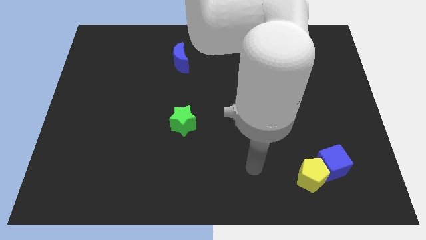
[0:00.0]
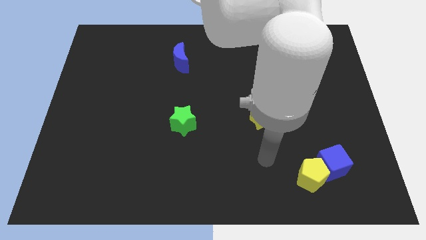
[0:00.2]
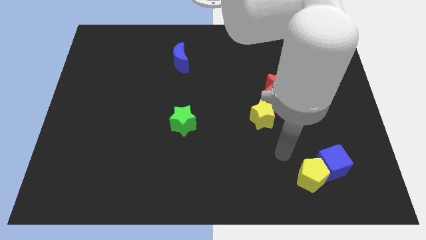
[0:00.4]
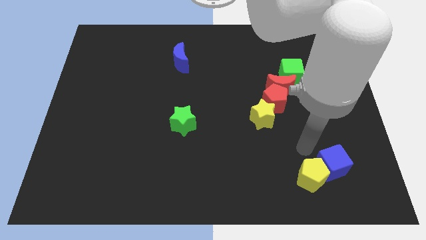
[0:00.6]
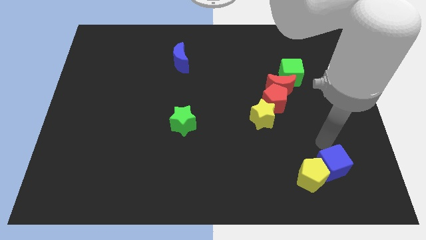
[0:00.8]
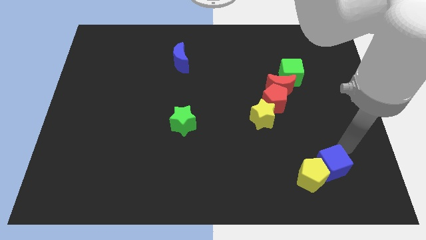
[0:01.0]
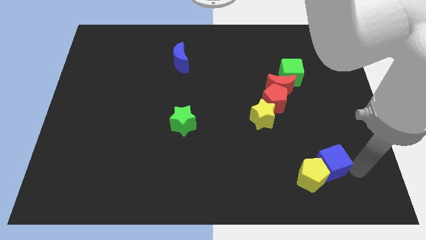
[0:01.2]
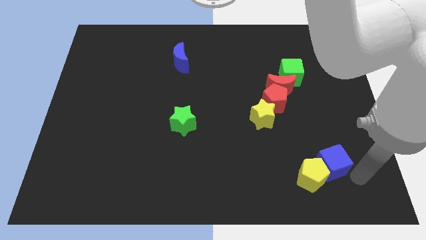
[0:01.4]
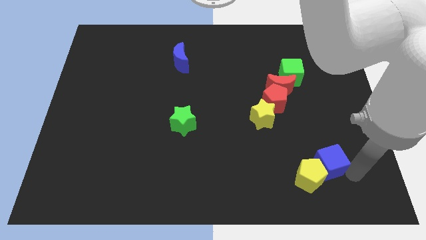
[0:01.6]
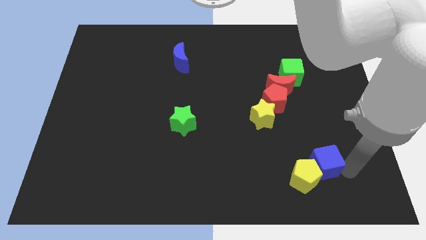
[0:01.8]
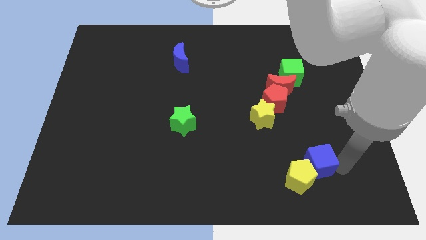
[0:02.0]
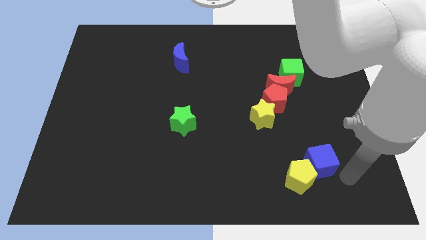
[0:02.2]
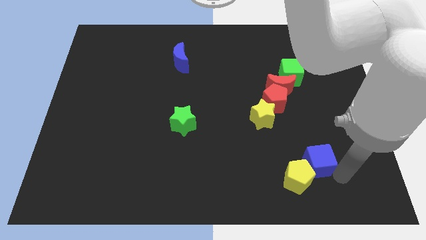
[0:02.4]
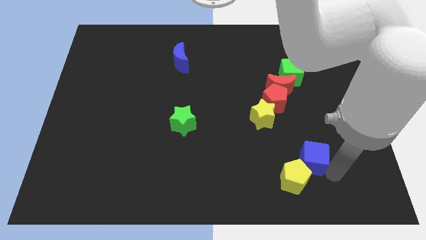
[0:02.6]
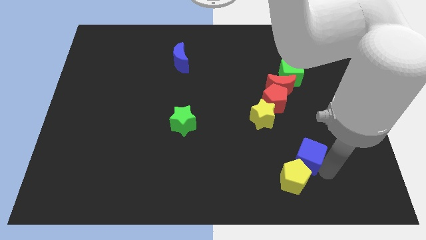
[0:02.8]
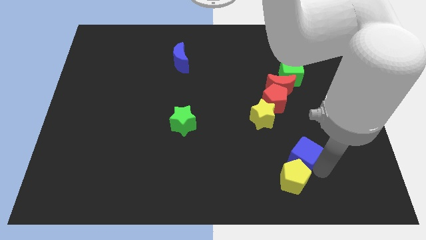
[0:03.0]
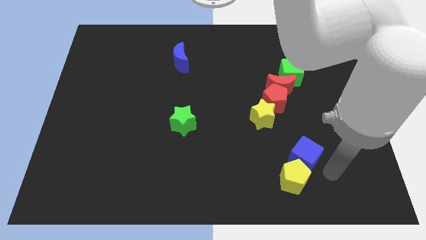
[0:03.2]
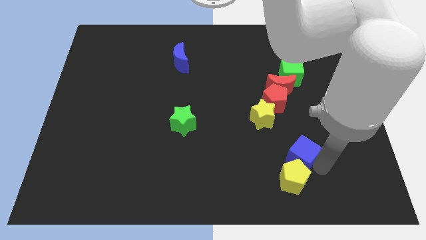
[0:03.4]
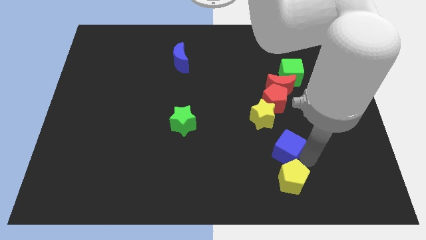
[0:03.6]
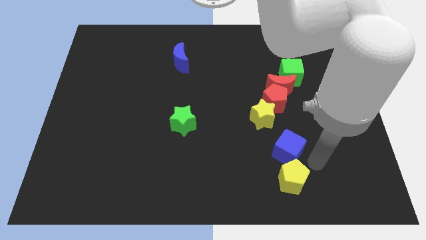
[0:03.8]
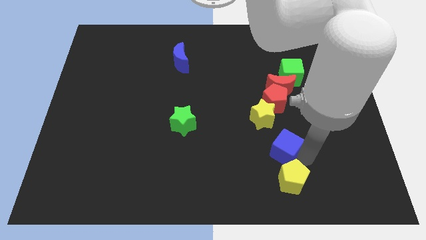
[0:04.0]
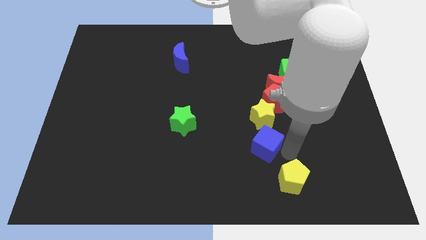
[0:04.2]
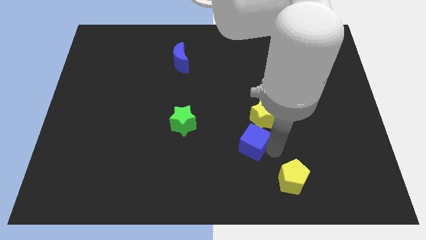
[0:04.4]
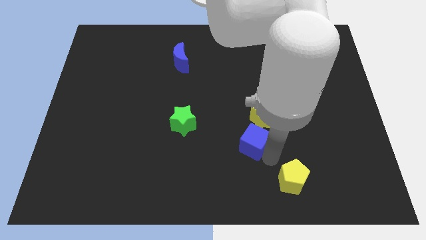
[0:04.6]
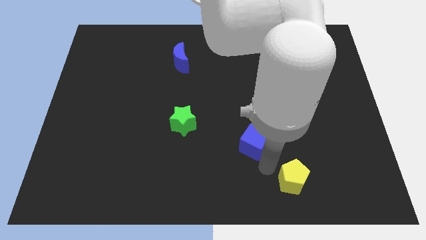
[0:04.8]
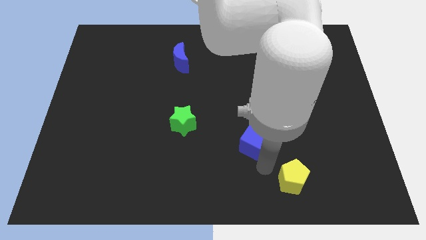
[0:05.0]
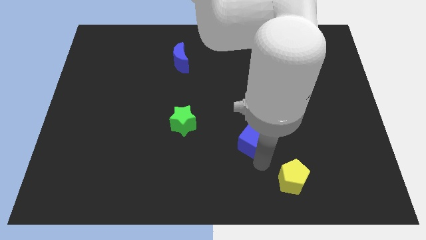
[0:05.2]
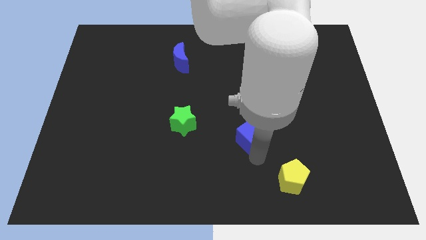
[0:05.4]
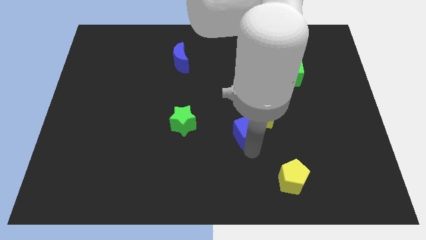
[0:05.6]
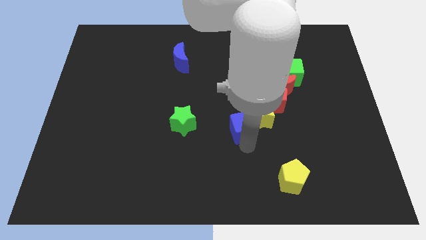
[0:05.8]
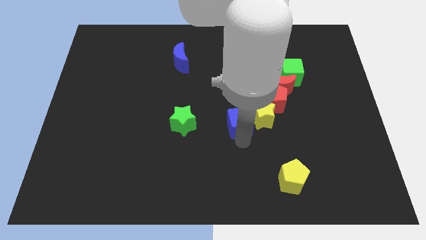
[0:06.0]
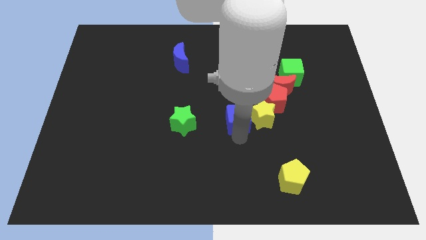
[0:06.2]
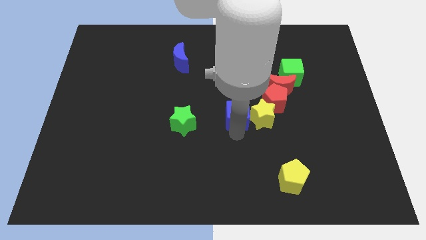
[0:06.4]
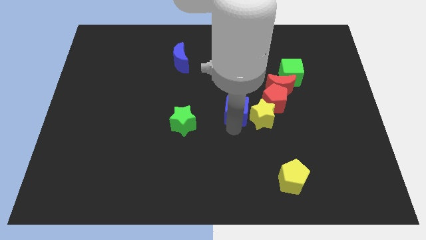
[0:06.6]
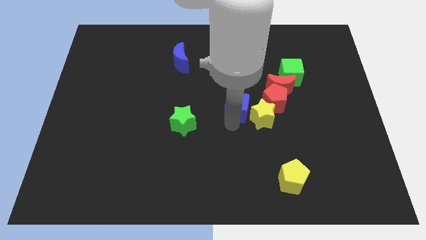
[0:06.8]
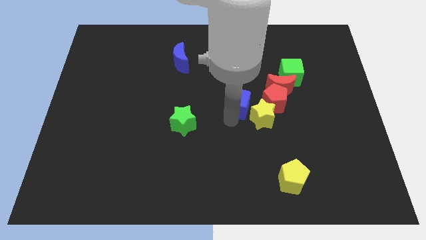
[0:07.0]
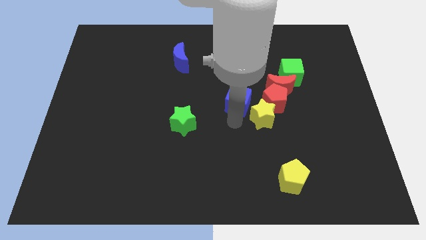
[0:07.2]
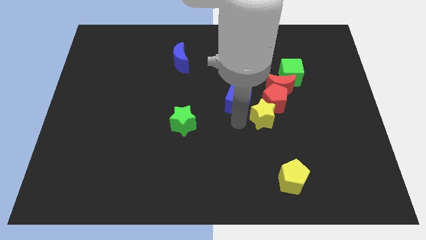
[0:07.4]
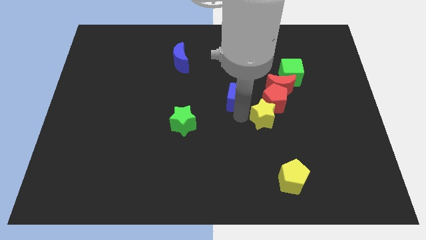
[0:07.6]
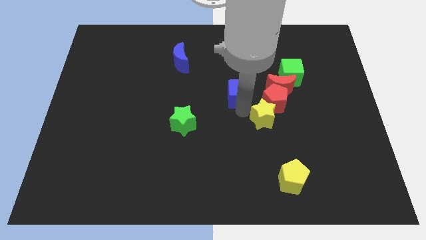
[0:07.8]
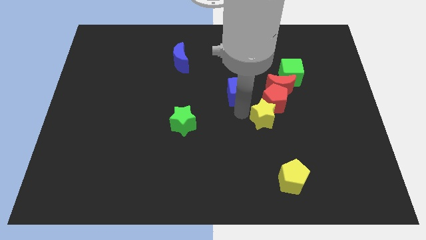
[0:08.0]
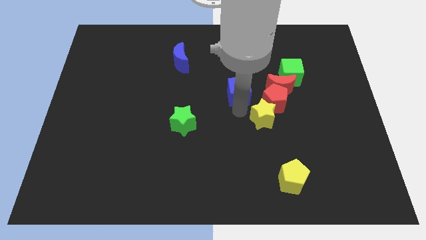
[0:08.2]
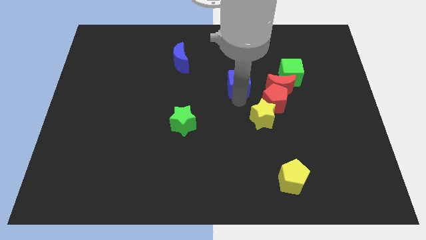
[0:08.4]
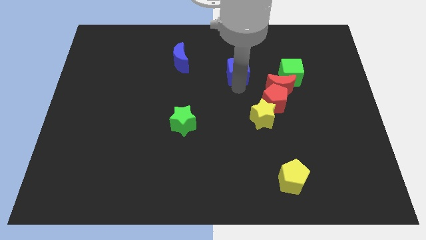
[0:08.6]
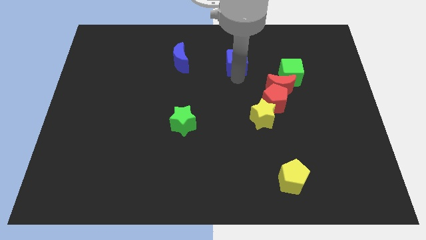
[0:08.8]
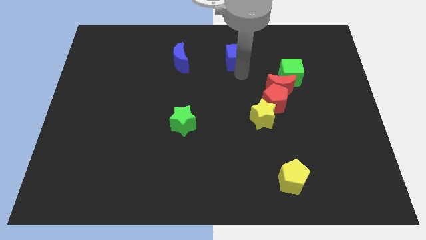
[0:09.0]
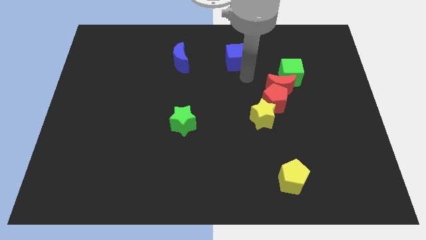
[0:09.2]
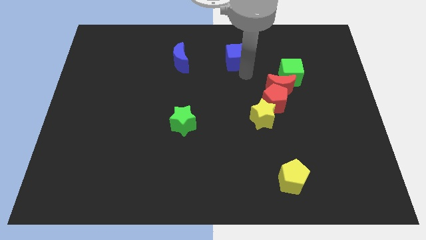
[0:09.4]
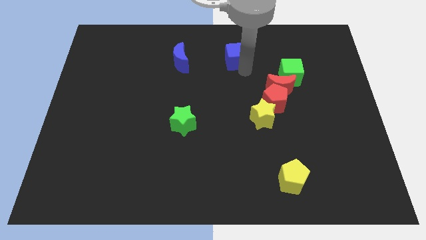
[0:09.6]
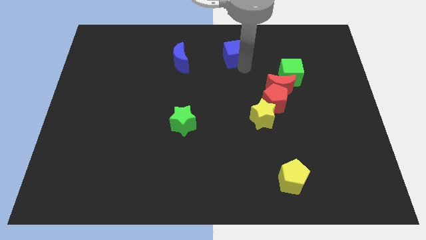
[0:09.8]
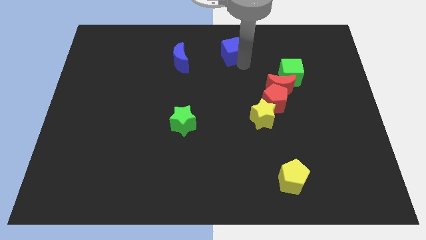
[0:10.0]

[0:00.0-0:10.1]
slide the blue cube to the top
